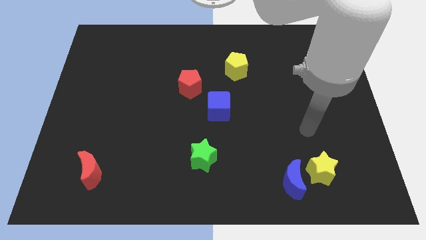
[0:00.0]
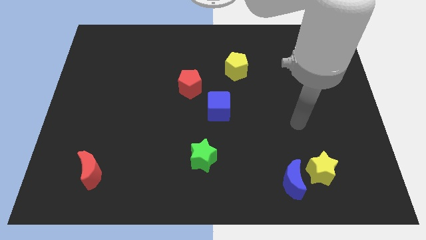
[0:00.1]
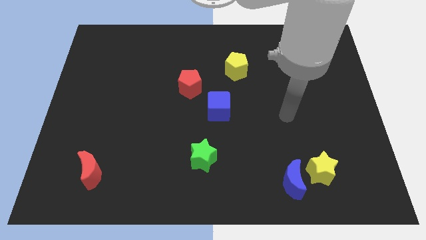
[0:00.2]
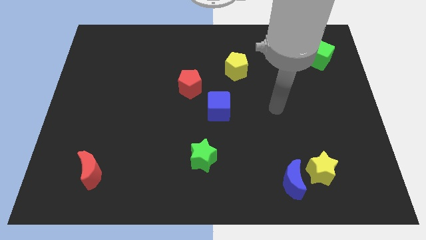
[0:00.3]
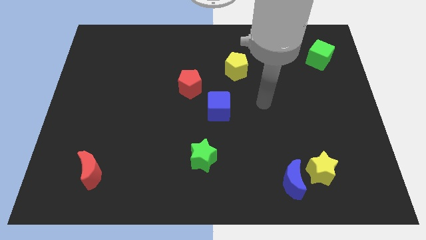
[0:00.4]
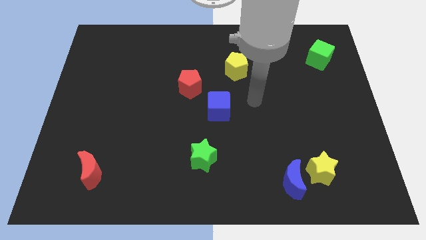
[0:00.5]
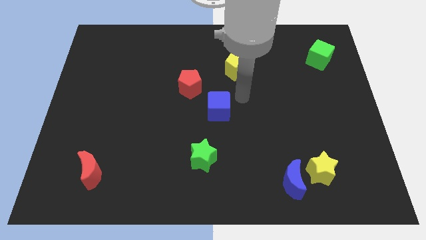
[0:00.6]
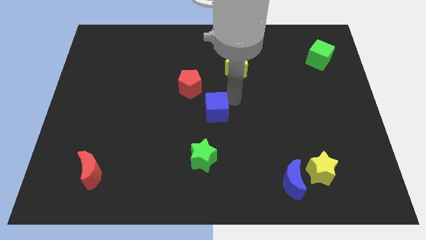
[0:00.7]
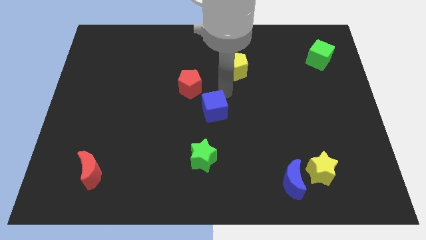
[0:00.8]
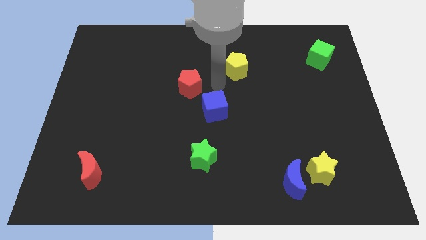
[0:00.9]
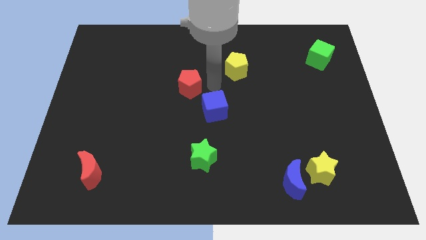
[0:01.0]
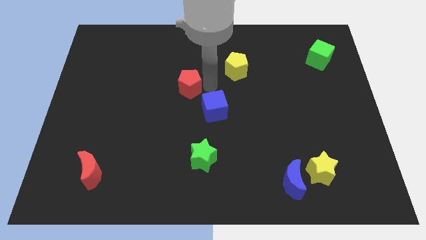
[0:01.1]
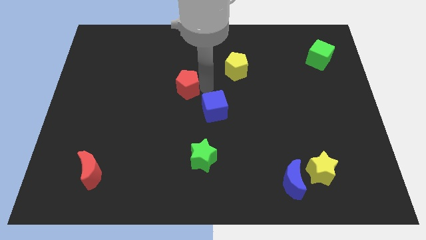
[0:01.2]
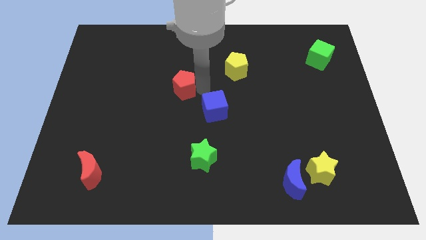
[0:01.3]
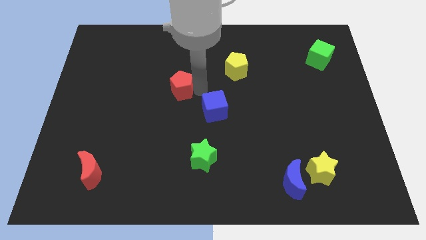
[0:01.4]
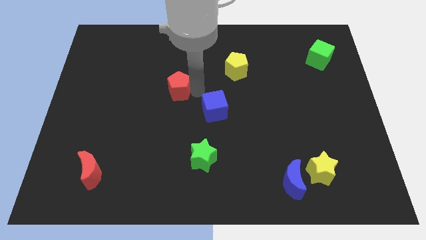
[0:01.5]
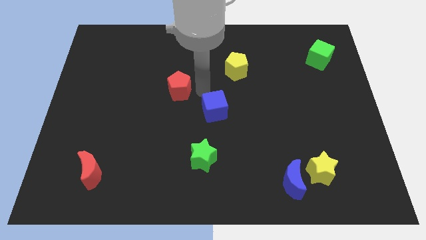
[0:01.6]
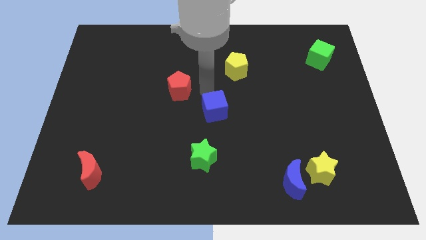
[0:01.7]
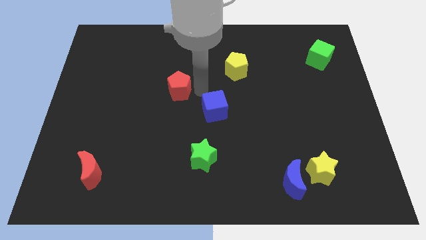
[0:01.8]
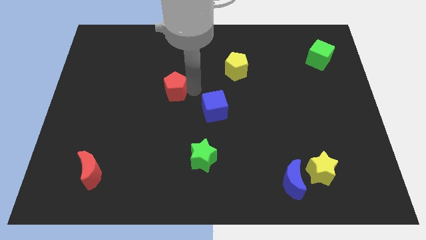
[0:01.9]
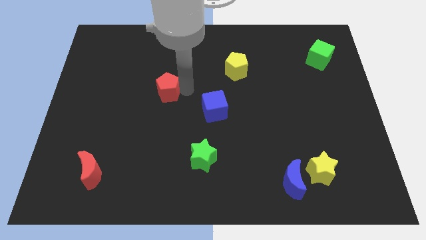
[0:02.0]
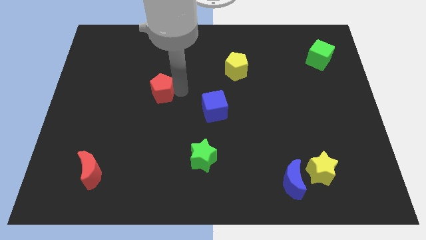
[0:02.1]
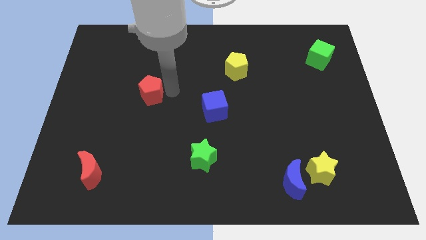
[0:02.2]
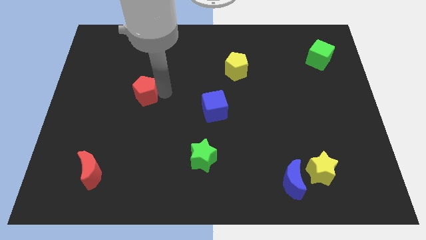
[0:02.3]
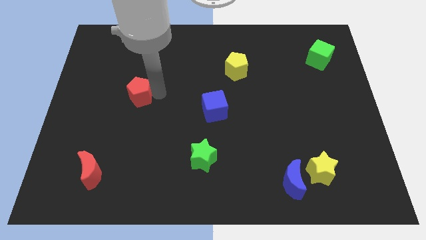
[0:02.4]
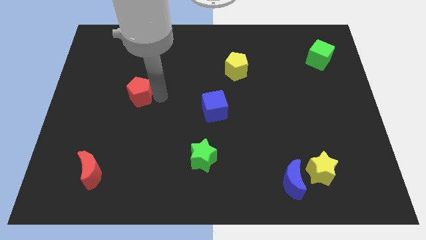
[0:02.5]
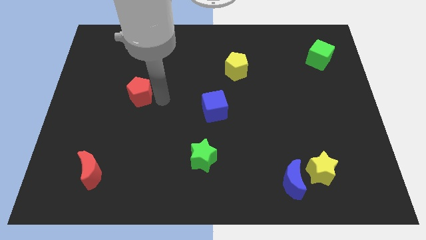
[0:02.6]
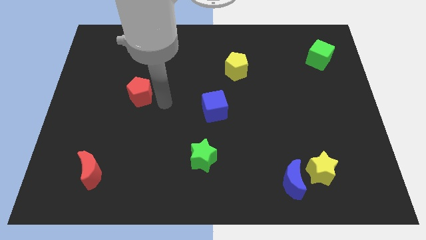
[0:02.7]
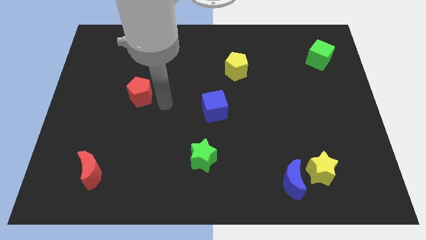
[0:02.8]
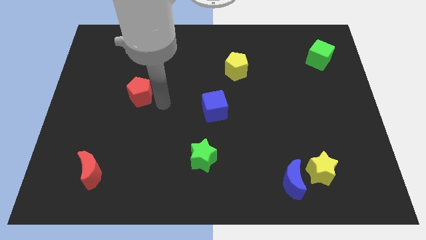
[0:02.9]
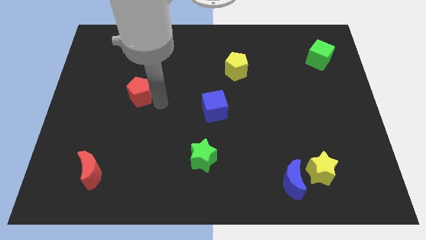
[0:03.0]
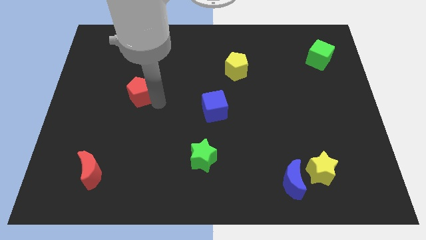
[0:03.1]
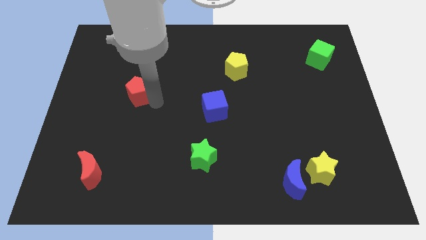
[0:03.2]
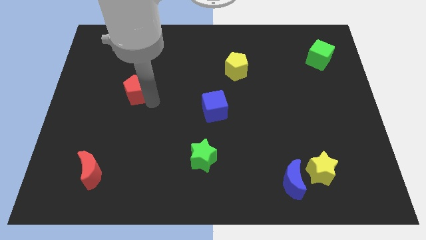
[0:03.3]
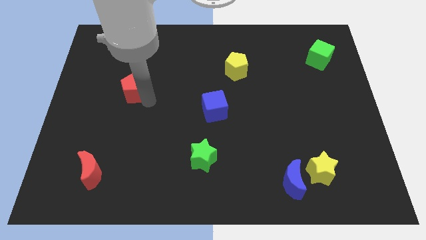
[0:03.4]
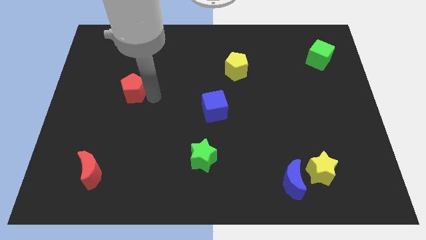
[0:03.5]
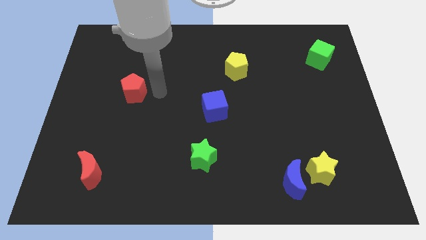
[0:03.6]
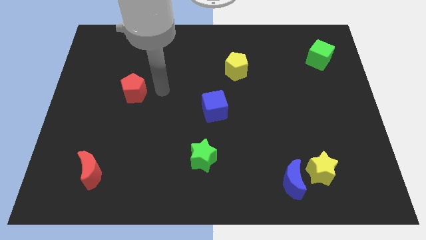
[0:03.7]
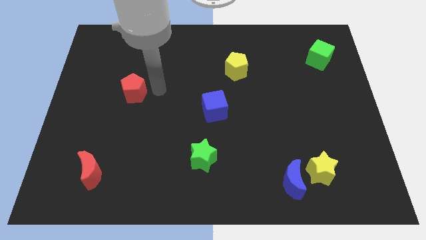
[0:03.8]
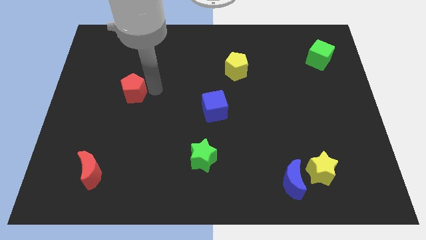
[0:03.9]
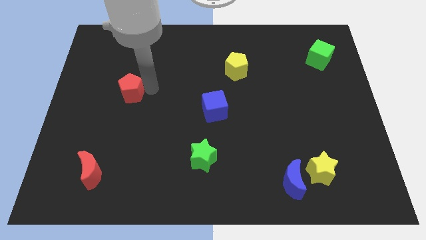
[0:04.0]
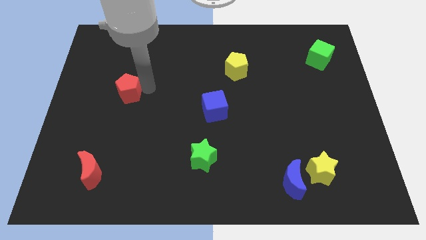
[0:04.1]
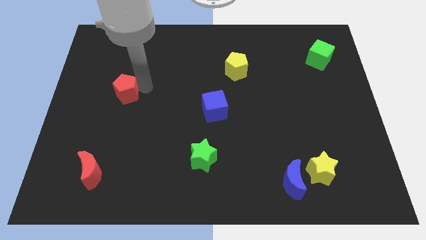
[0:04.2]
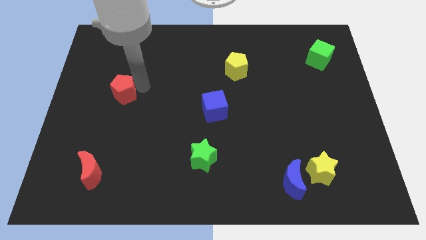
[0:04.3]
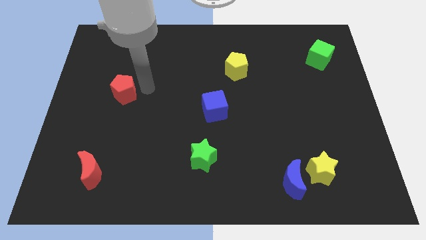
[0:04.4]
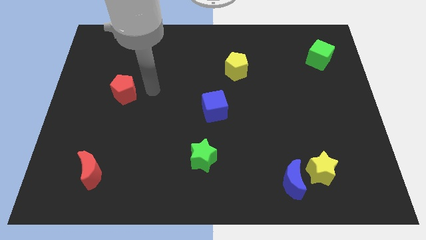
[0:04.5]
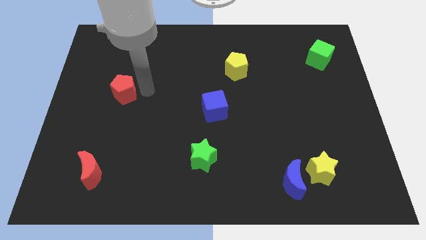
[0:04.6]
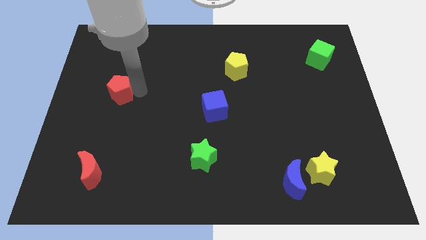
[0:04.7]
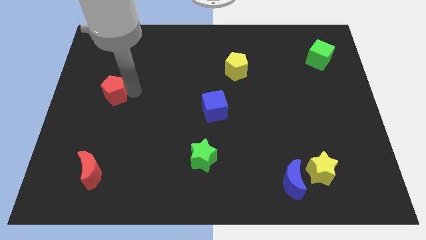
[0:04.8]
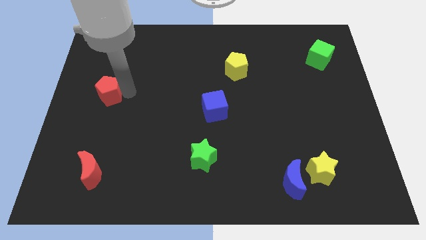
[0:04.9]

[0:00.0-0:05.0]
push the red pentagon to the left side

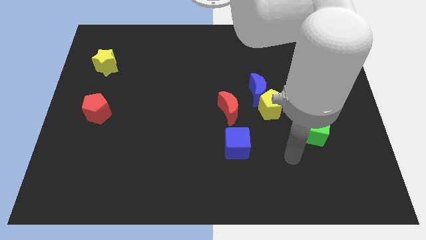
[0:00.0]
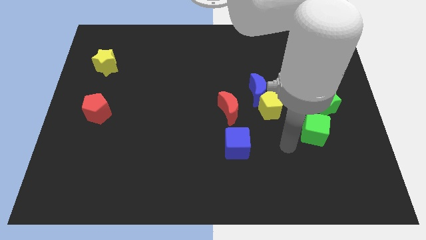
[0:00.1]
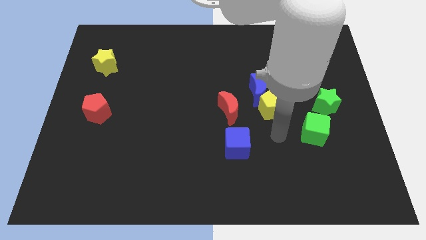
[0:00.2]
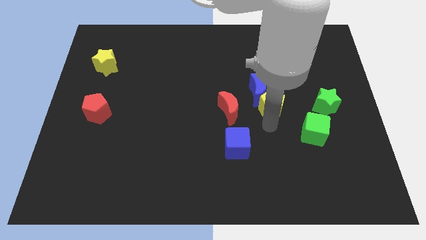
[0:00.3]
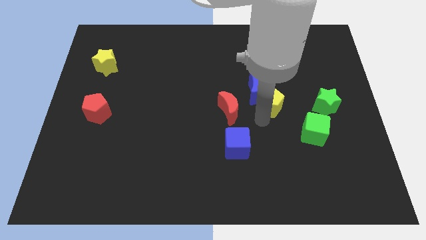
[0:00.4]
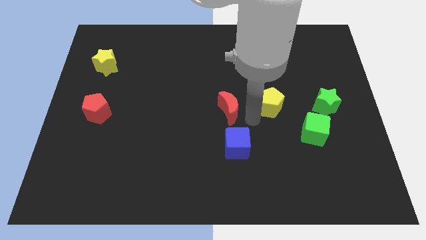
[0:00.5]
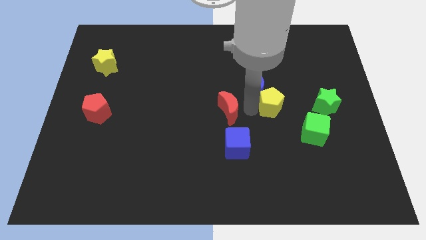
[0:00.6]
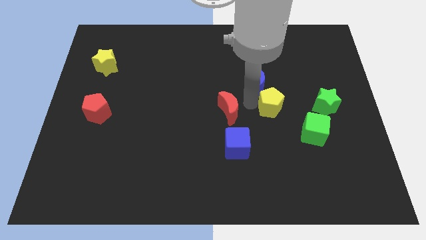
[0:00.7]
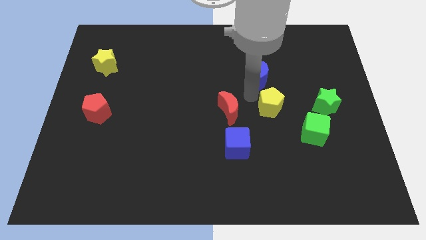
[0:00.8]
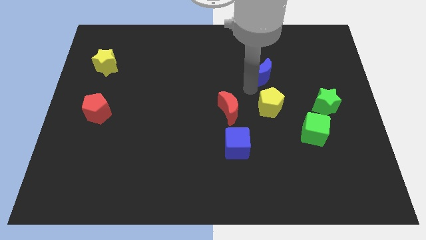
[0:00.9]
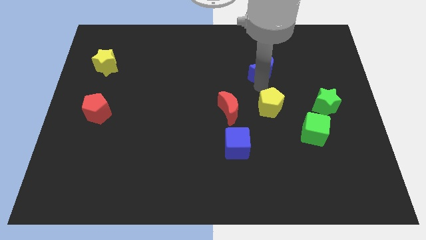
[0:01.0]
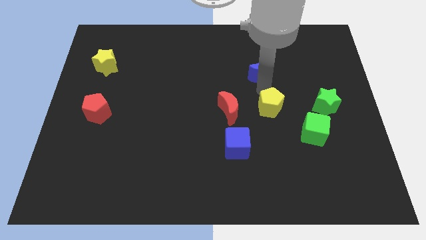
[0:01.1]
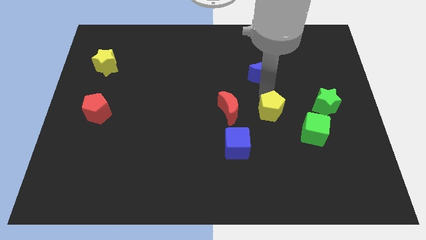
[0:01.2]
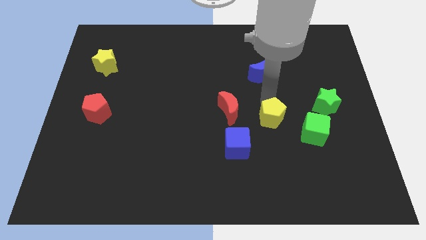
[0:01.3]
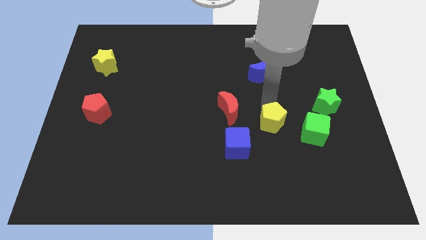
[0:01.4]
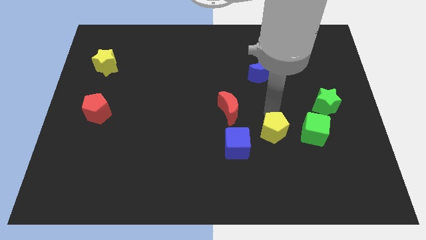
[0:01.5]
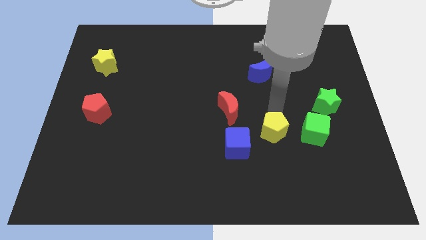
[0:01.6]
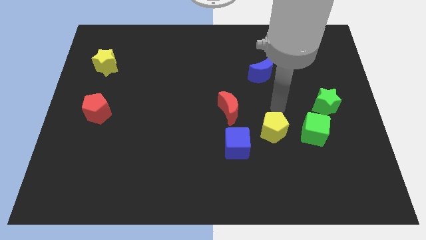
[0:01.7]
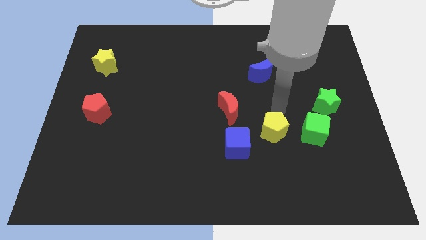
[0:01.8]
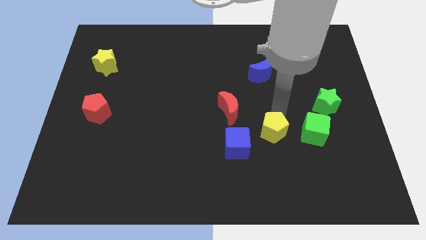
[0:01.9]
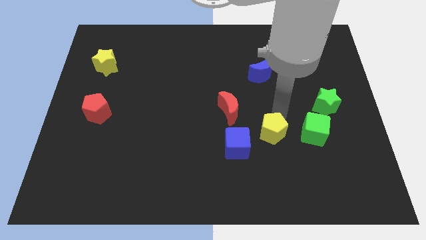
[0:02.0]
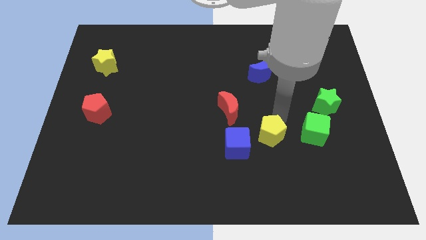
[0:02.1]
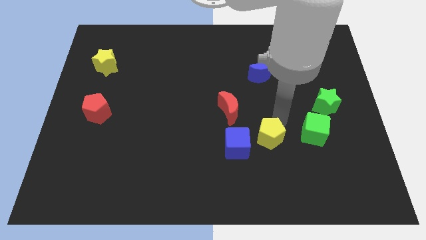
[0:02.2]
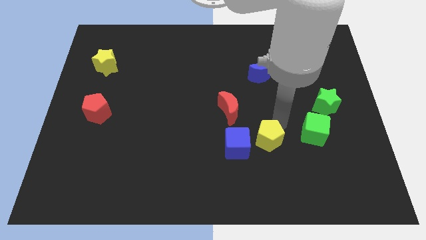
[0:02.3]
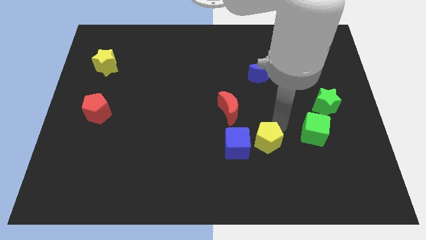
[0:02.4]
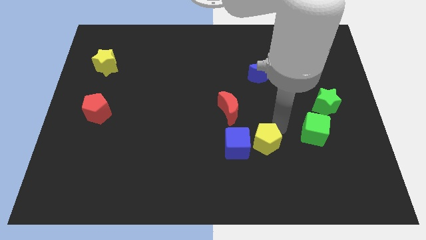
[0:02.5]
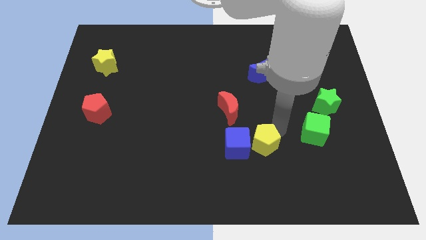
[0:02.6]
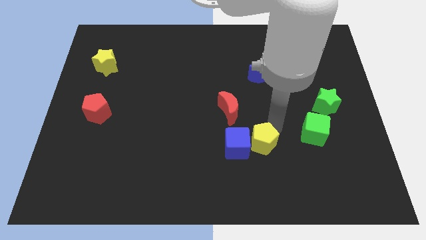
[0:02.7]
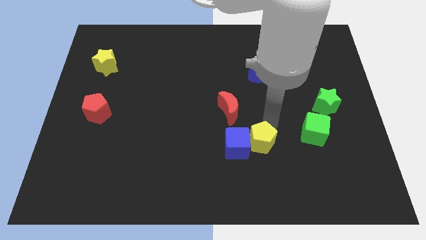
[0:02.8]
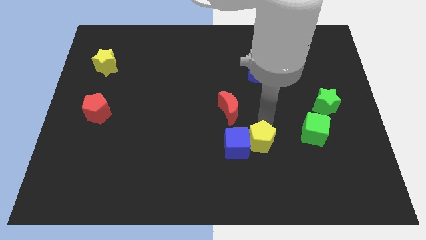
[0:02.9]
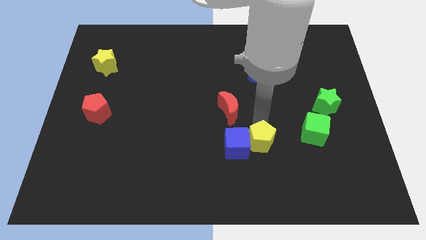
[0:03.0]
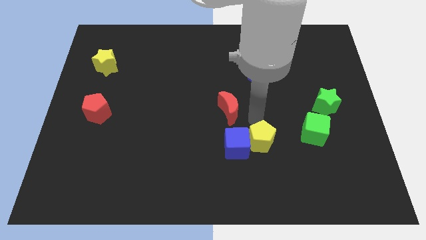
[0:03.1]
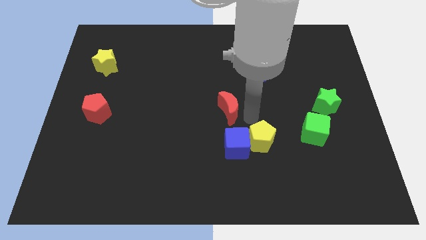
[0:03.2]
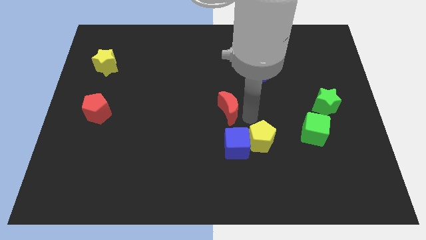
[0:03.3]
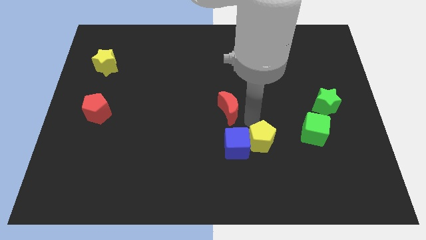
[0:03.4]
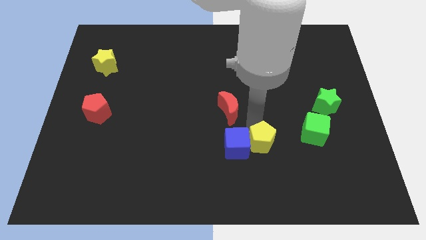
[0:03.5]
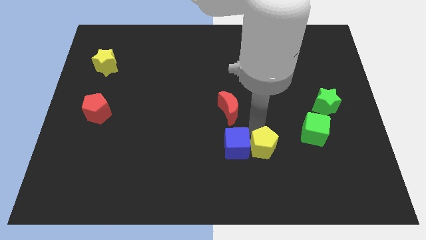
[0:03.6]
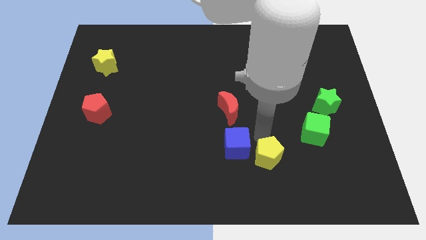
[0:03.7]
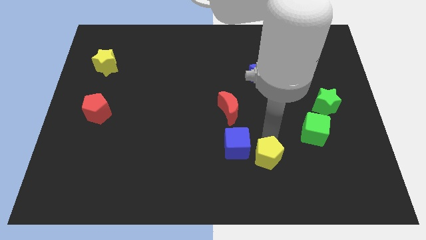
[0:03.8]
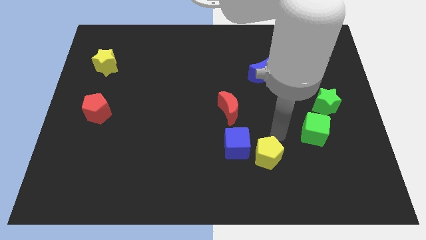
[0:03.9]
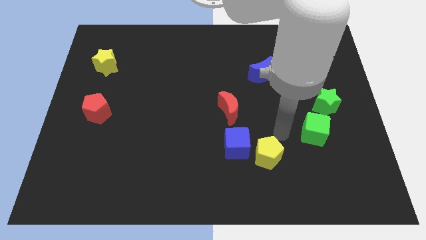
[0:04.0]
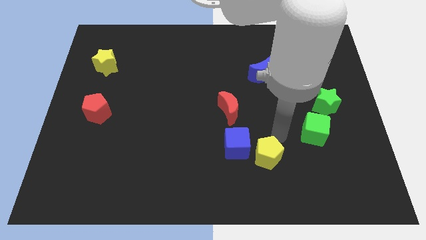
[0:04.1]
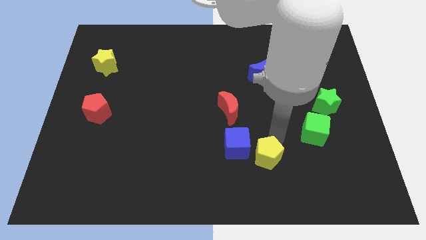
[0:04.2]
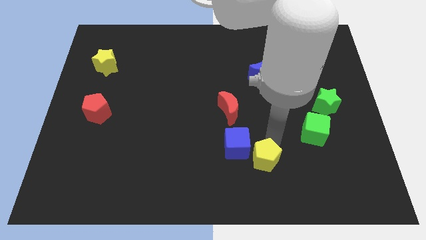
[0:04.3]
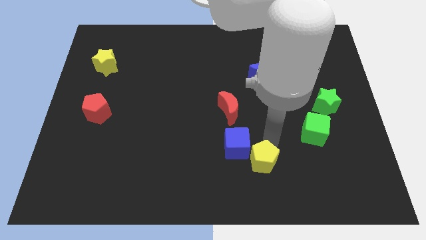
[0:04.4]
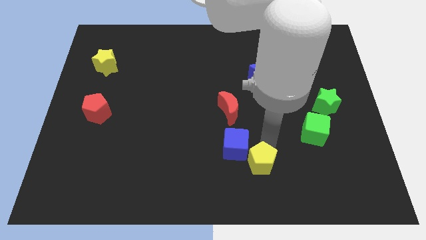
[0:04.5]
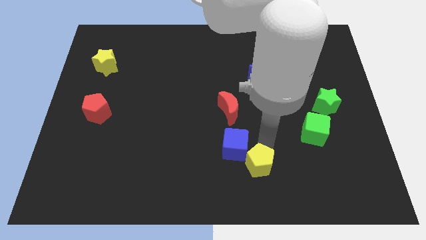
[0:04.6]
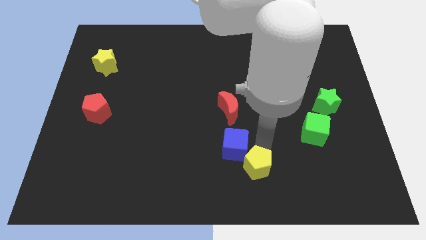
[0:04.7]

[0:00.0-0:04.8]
push the yellow pentagon to the bottom
